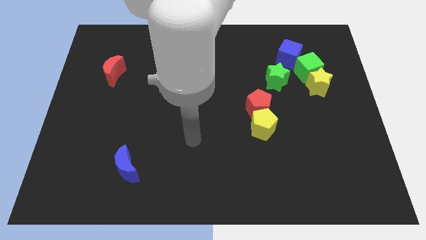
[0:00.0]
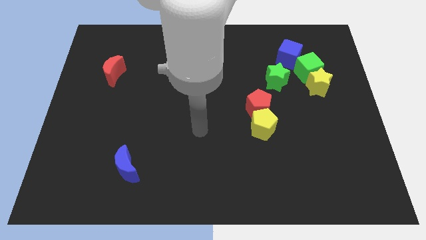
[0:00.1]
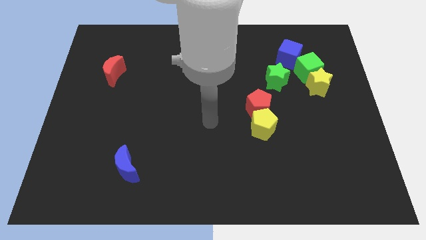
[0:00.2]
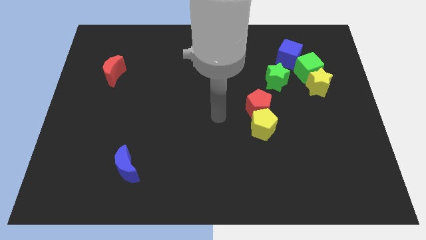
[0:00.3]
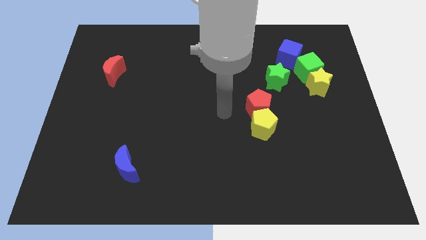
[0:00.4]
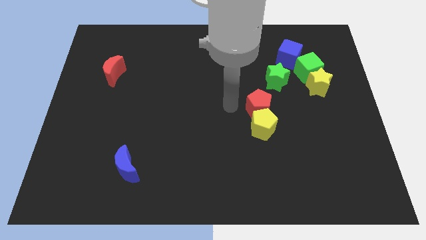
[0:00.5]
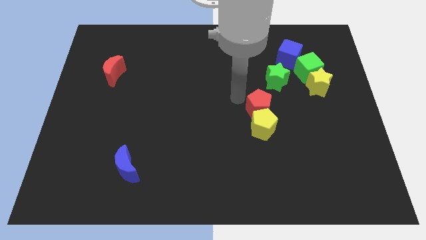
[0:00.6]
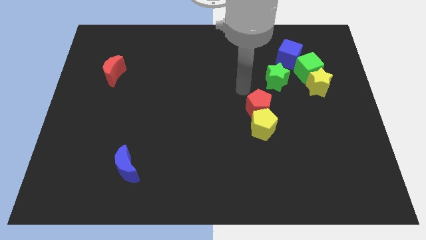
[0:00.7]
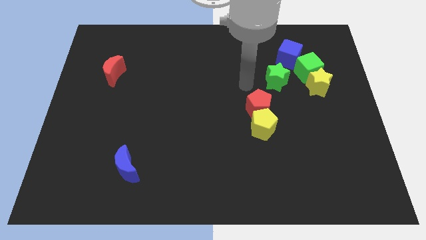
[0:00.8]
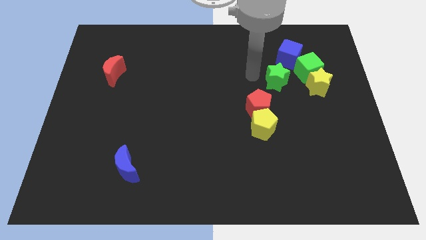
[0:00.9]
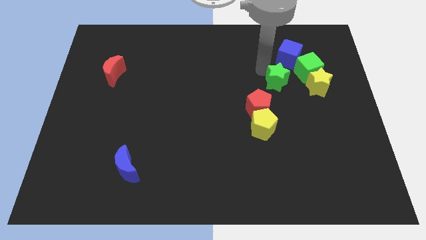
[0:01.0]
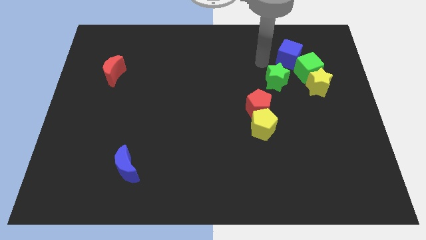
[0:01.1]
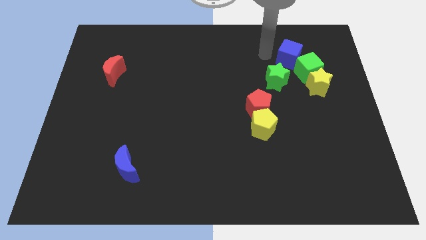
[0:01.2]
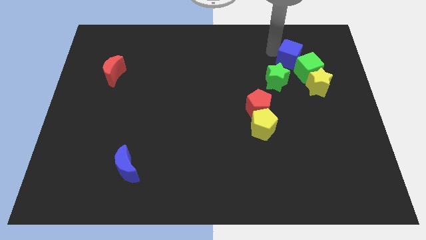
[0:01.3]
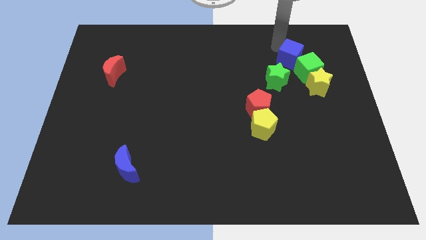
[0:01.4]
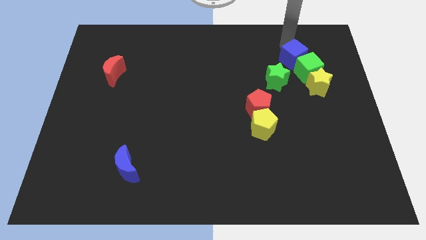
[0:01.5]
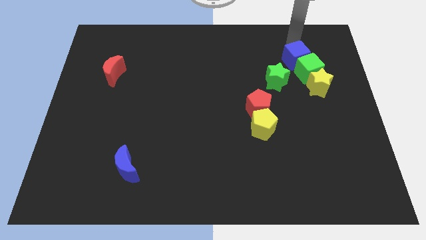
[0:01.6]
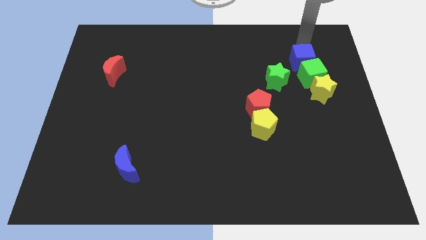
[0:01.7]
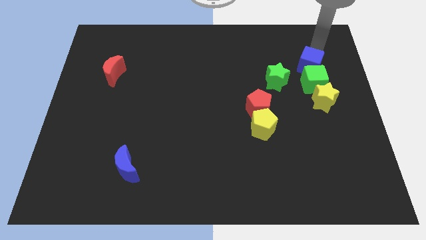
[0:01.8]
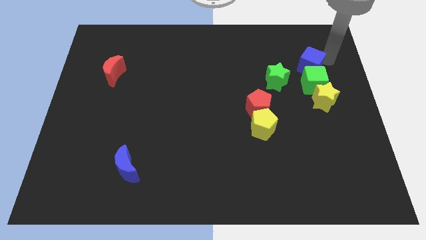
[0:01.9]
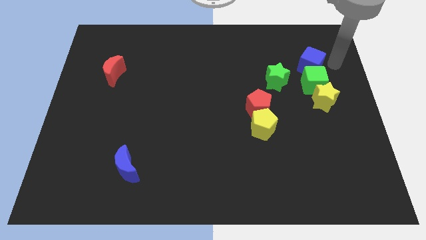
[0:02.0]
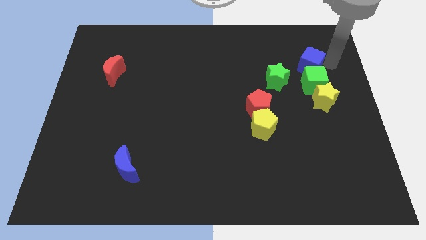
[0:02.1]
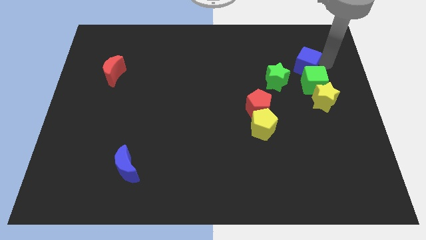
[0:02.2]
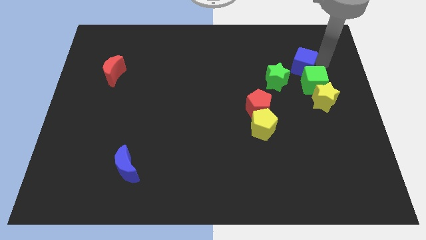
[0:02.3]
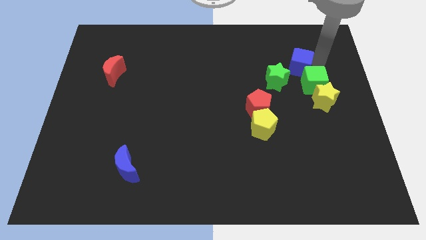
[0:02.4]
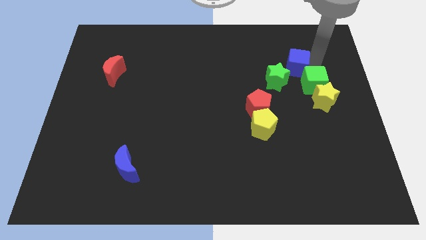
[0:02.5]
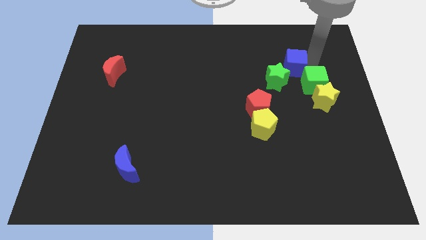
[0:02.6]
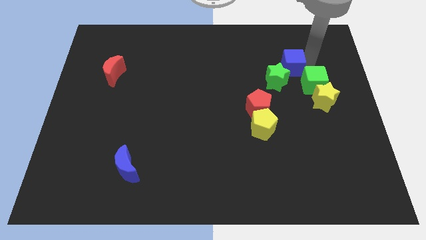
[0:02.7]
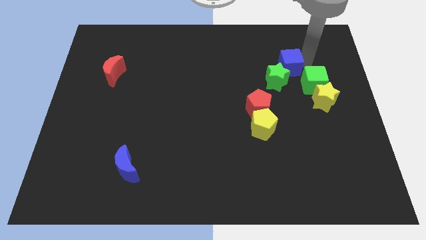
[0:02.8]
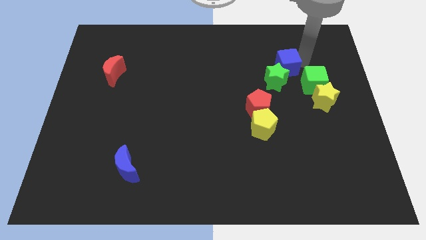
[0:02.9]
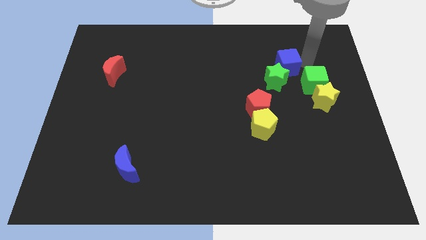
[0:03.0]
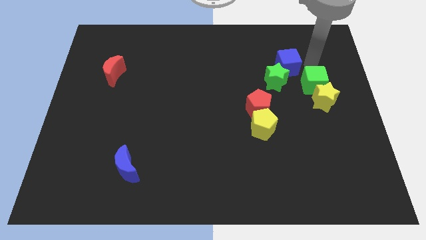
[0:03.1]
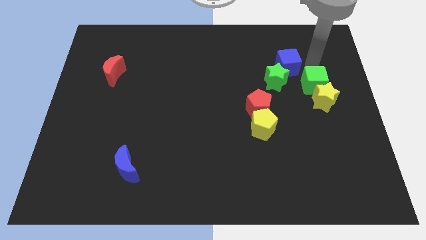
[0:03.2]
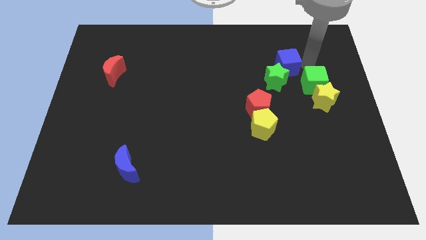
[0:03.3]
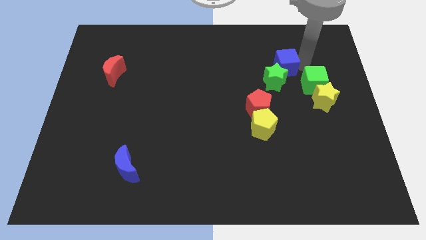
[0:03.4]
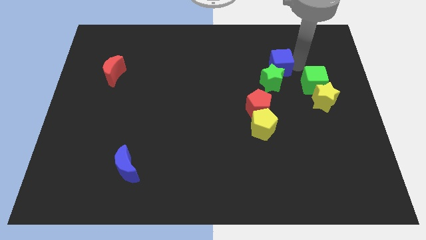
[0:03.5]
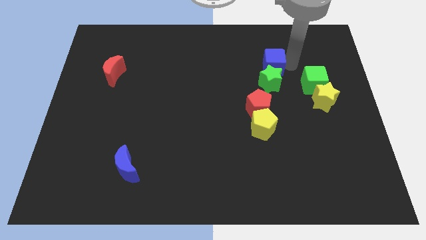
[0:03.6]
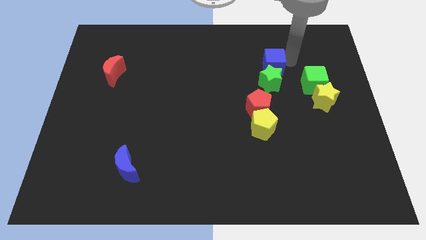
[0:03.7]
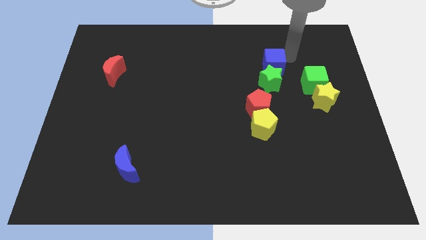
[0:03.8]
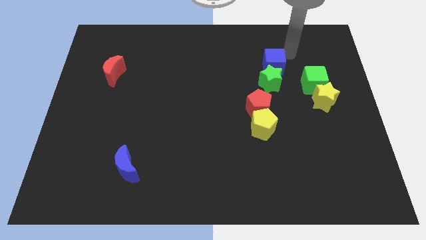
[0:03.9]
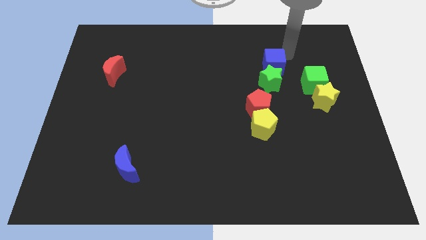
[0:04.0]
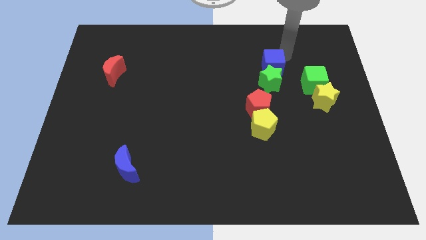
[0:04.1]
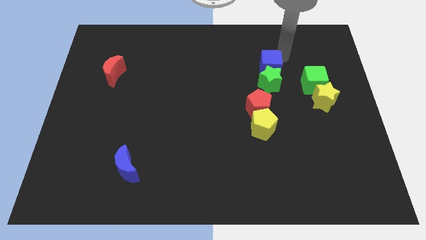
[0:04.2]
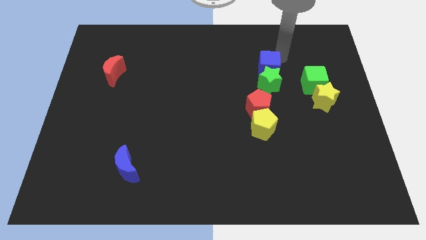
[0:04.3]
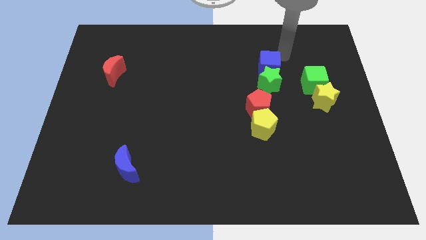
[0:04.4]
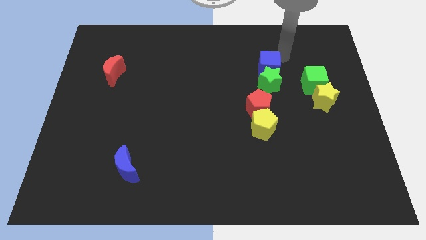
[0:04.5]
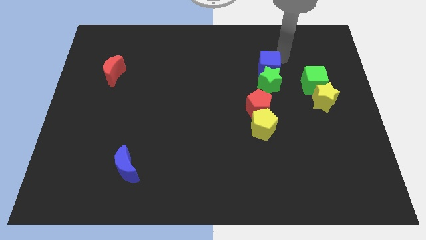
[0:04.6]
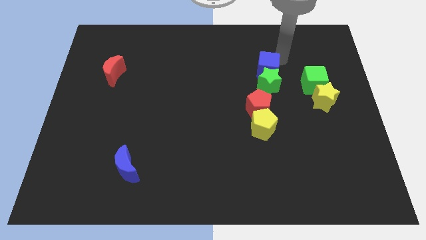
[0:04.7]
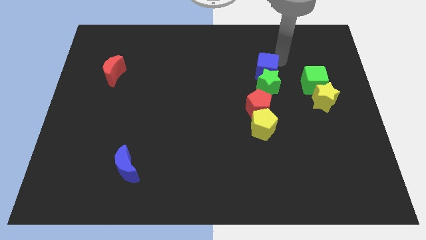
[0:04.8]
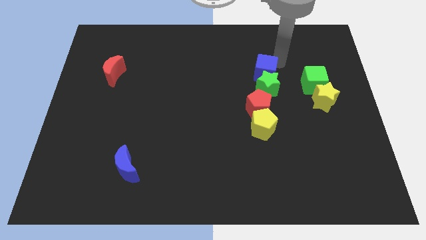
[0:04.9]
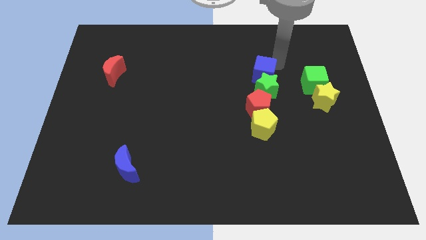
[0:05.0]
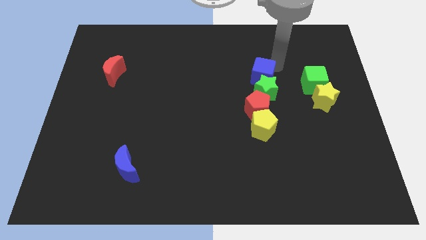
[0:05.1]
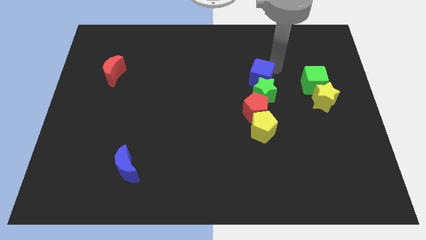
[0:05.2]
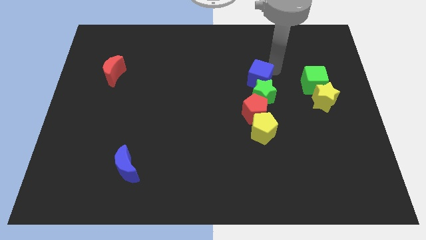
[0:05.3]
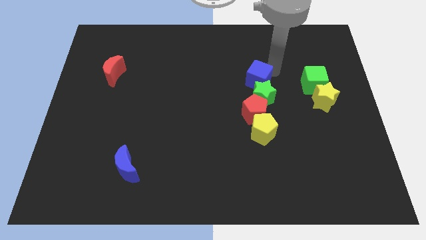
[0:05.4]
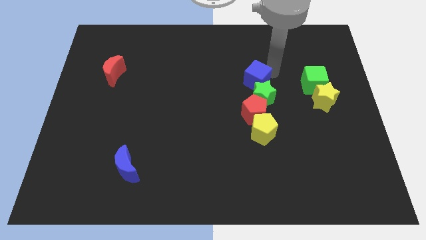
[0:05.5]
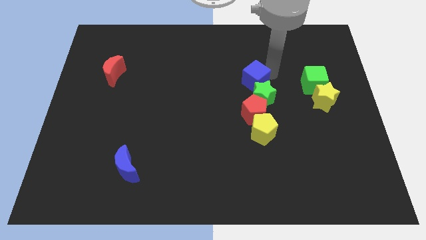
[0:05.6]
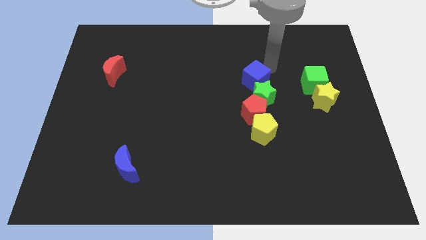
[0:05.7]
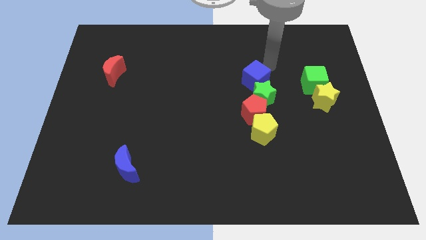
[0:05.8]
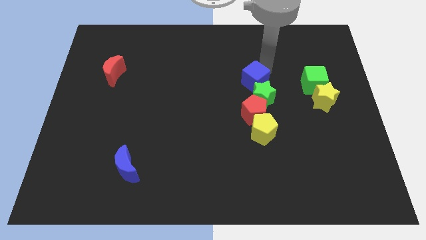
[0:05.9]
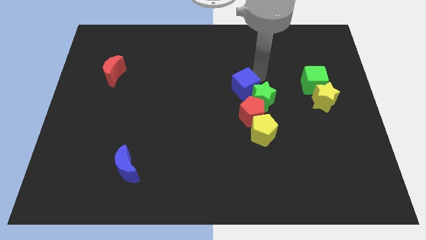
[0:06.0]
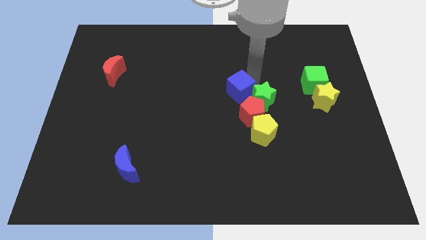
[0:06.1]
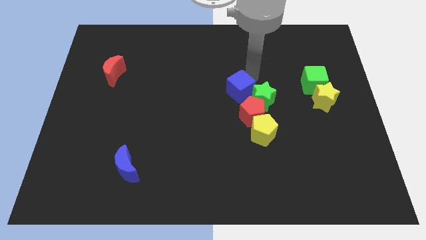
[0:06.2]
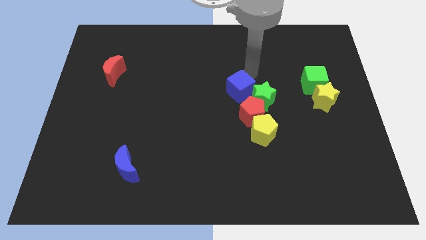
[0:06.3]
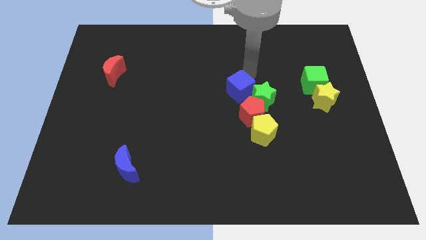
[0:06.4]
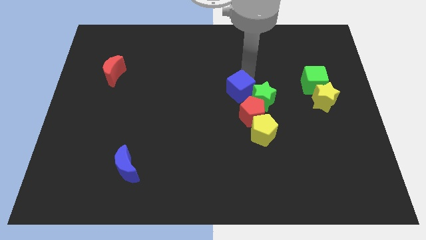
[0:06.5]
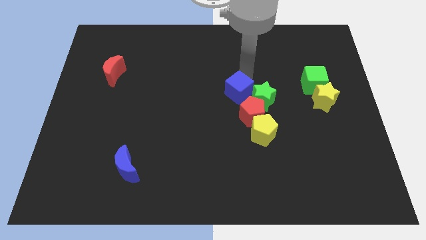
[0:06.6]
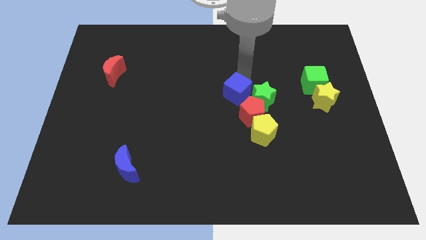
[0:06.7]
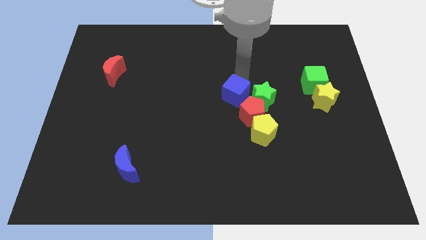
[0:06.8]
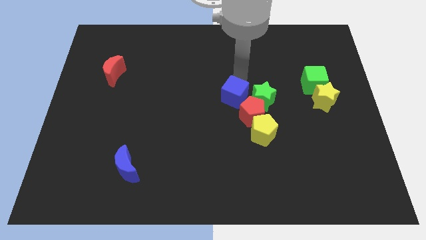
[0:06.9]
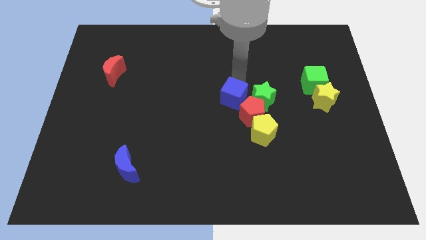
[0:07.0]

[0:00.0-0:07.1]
move the blue cube downwards and left

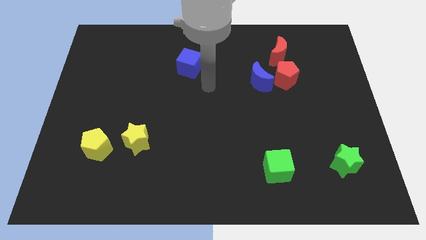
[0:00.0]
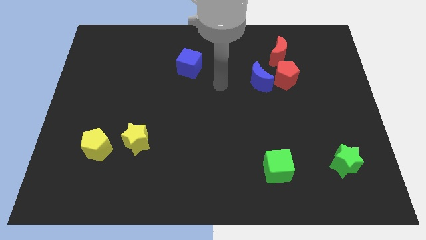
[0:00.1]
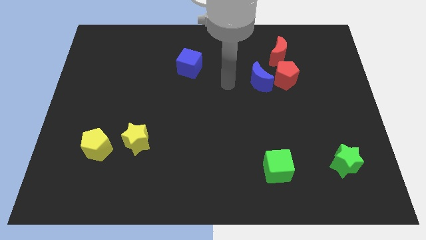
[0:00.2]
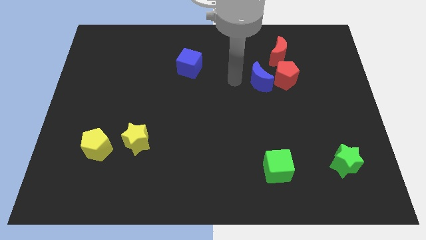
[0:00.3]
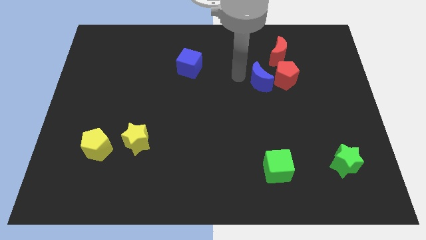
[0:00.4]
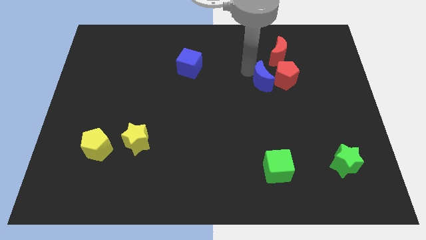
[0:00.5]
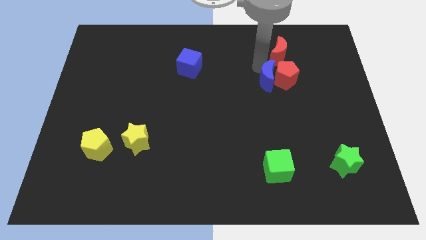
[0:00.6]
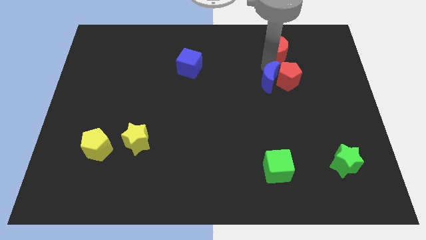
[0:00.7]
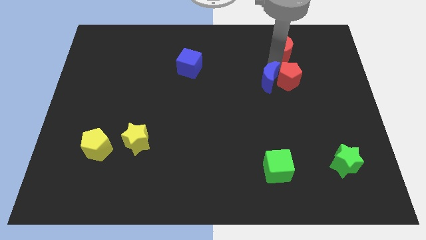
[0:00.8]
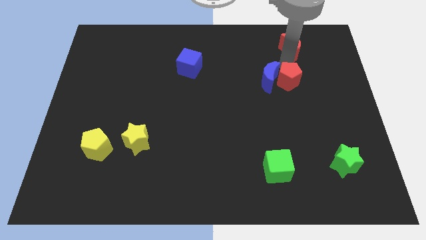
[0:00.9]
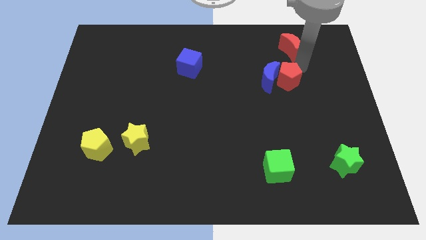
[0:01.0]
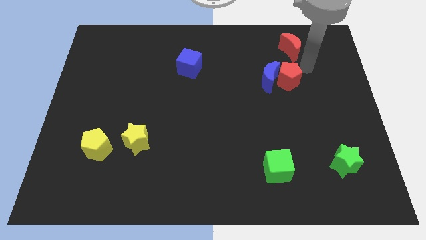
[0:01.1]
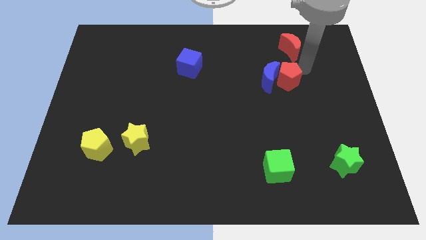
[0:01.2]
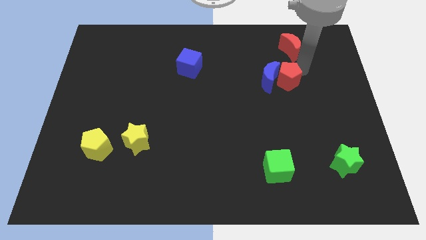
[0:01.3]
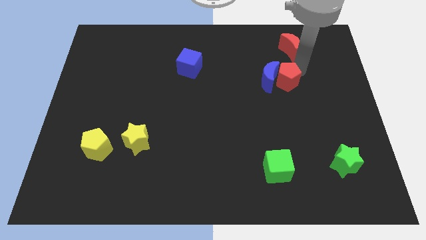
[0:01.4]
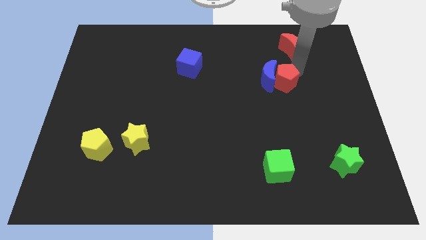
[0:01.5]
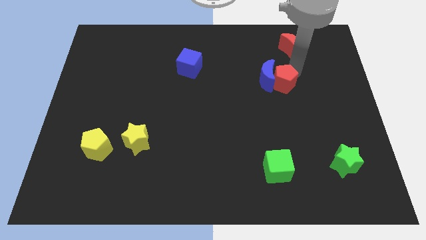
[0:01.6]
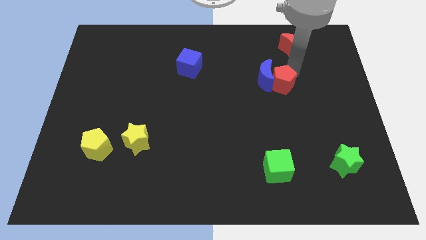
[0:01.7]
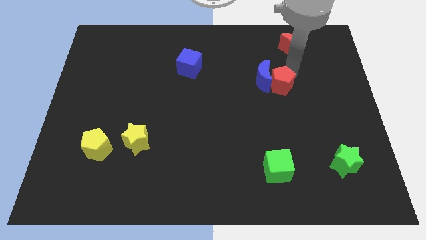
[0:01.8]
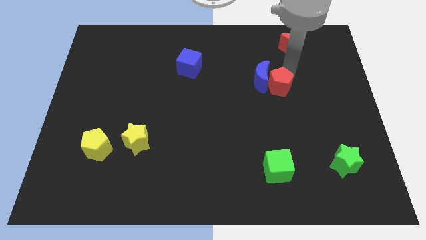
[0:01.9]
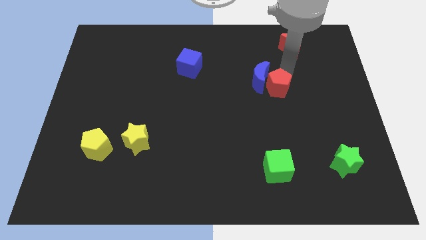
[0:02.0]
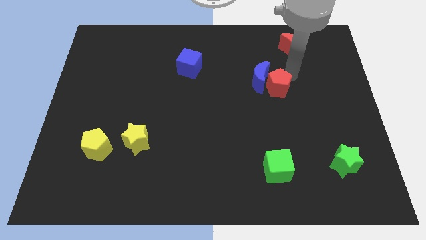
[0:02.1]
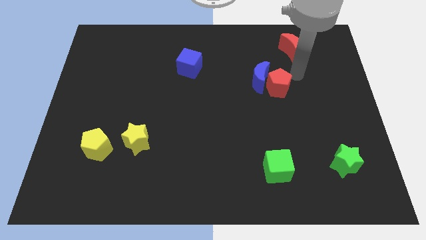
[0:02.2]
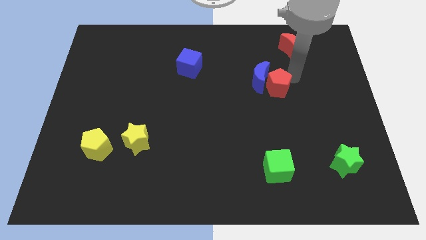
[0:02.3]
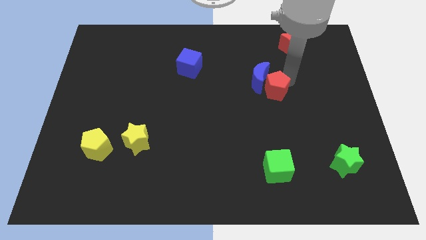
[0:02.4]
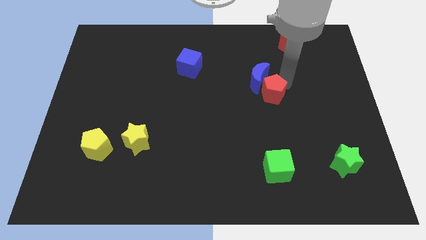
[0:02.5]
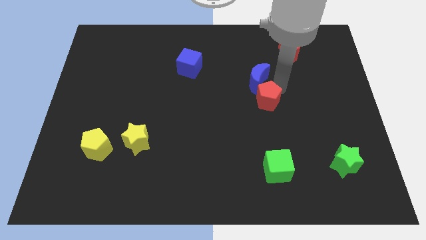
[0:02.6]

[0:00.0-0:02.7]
push the red pentagon down and to the left a bit
